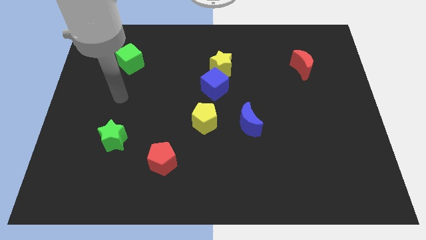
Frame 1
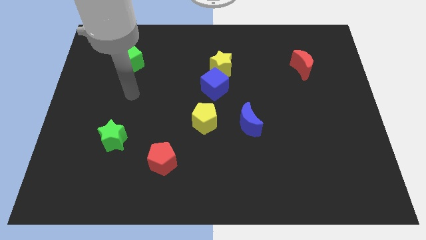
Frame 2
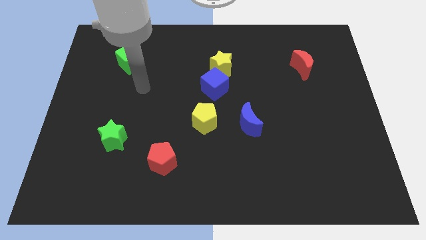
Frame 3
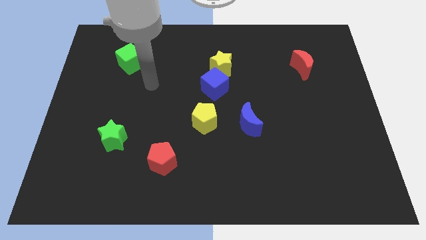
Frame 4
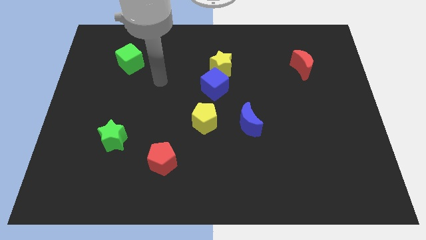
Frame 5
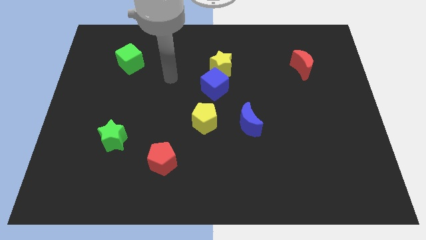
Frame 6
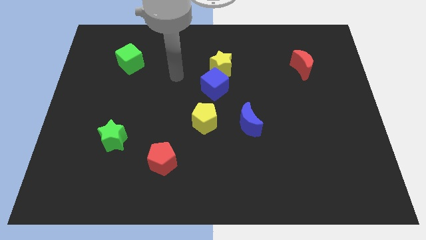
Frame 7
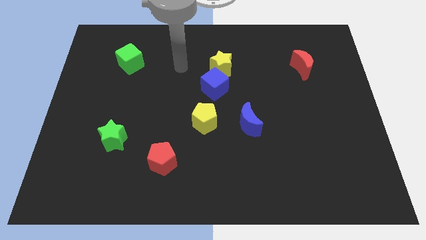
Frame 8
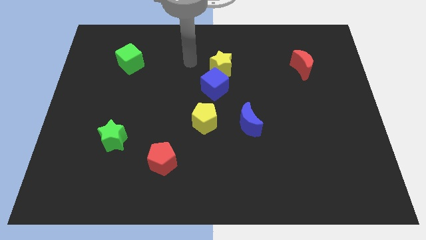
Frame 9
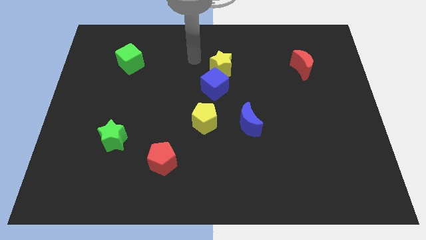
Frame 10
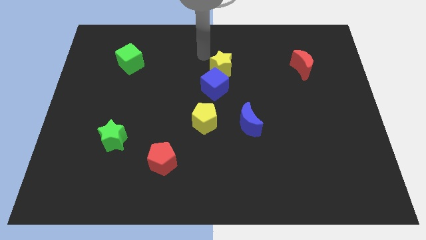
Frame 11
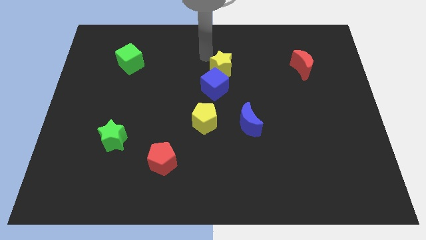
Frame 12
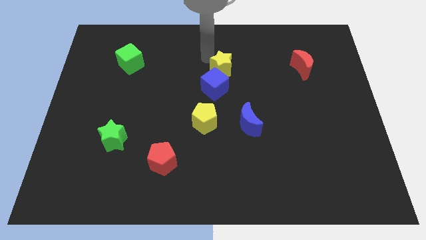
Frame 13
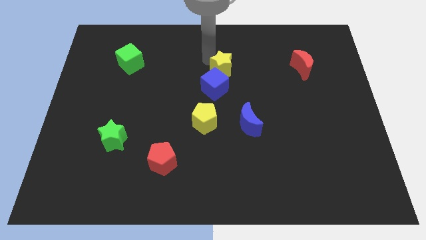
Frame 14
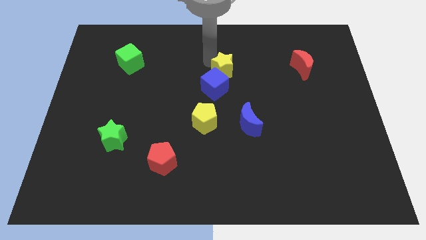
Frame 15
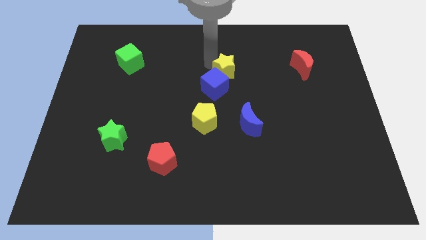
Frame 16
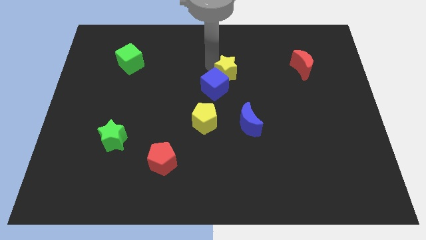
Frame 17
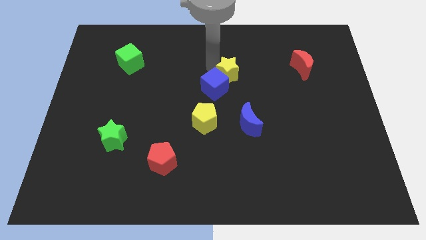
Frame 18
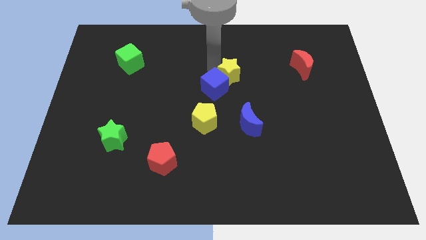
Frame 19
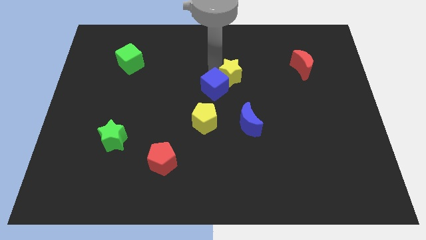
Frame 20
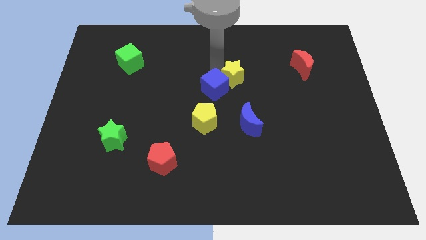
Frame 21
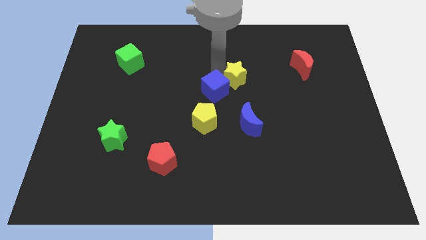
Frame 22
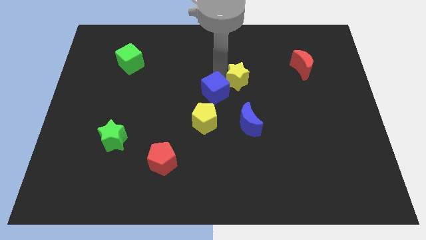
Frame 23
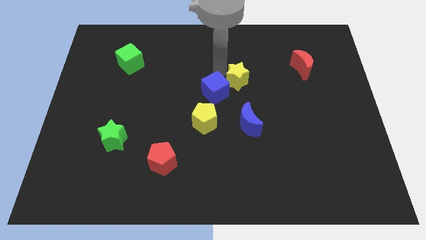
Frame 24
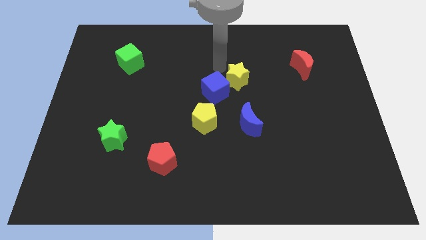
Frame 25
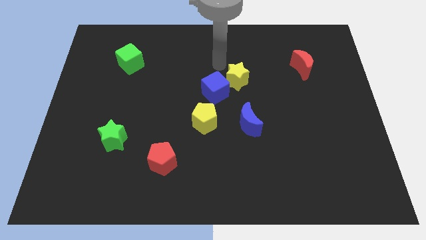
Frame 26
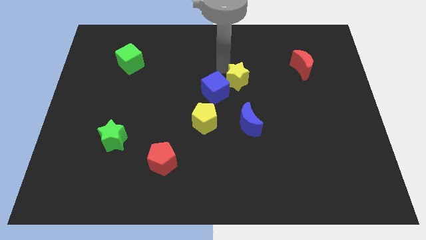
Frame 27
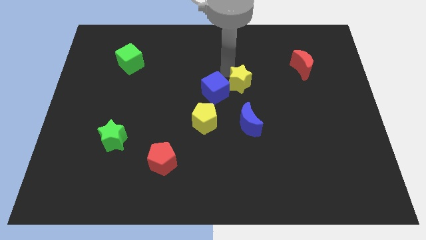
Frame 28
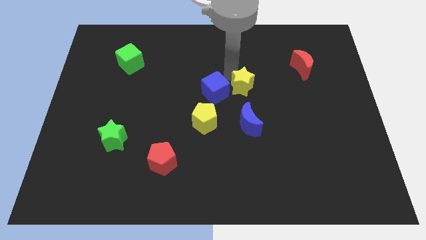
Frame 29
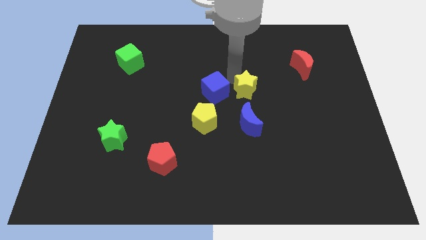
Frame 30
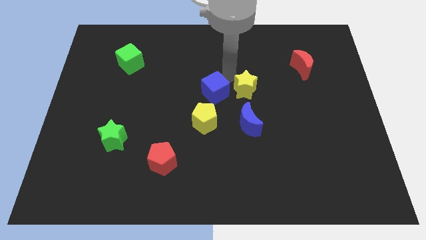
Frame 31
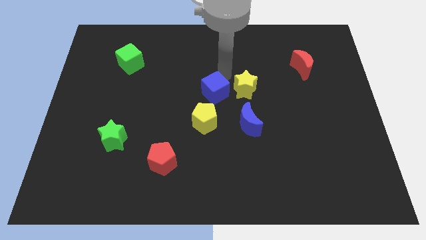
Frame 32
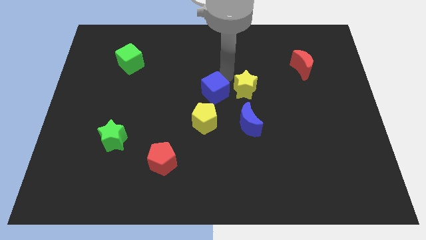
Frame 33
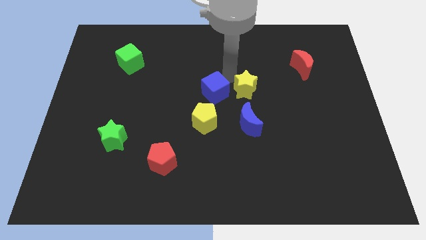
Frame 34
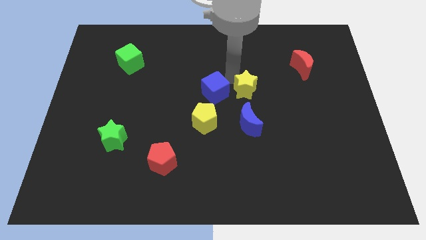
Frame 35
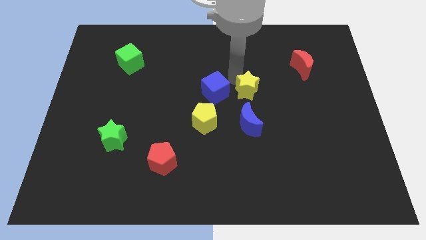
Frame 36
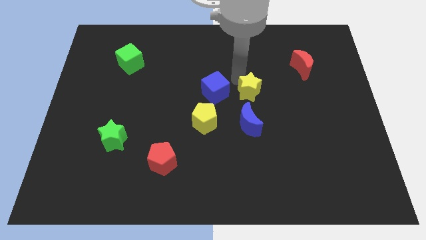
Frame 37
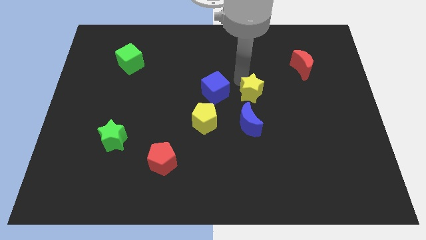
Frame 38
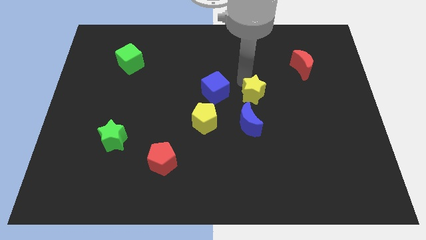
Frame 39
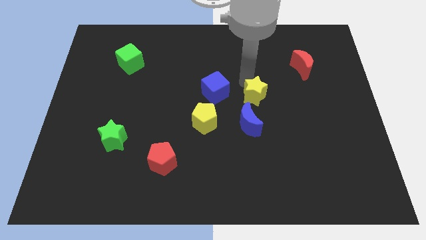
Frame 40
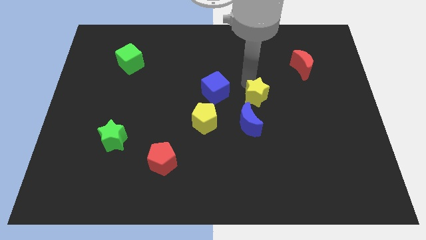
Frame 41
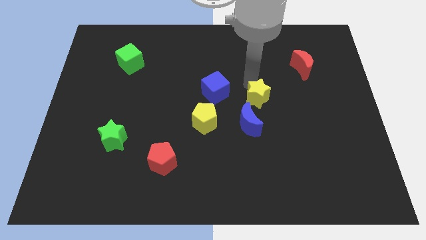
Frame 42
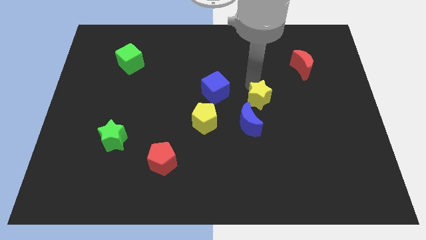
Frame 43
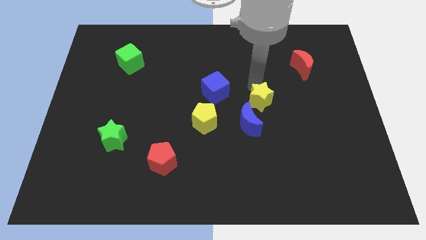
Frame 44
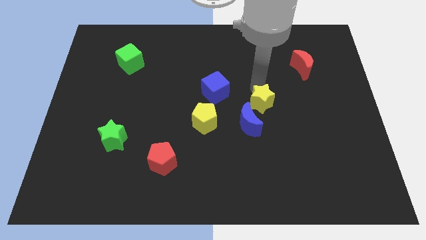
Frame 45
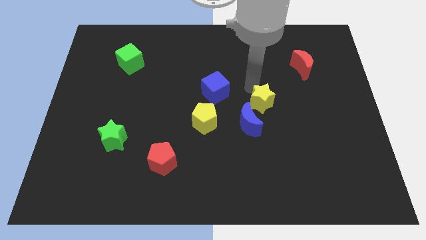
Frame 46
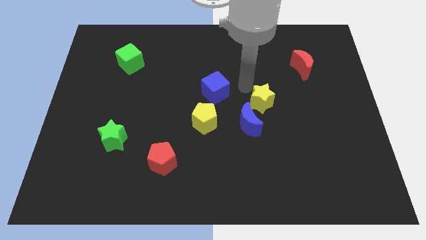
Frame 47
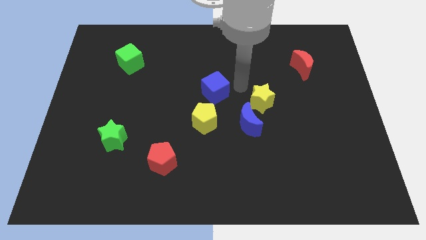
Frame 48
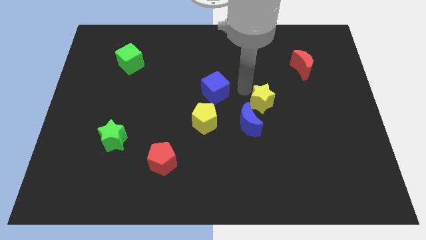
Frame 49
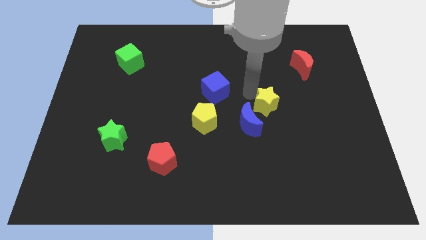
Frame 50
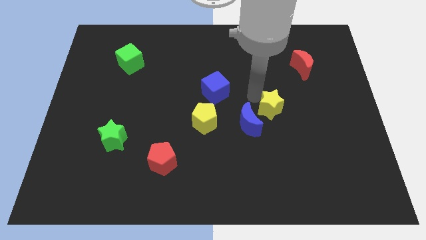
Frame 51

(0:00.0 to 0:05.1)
push the yellow star to the right of the blue moon

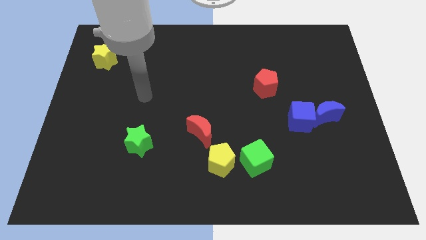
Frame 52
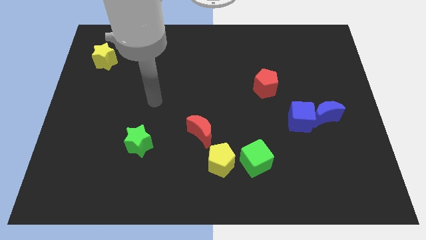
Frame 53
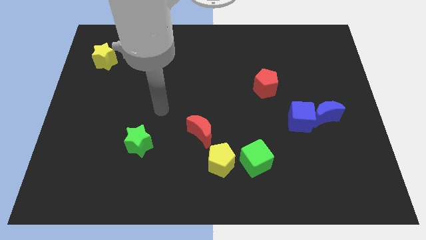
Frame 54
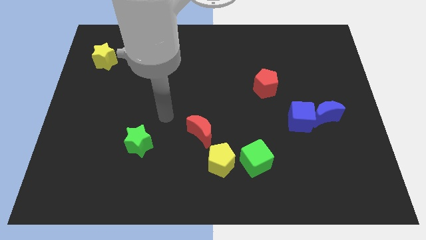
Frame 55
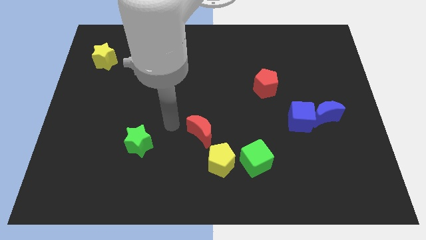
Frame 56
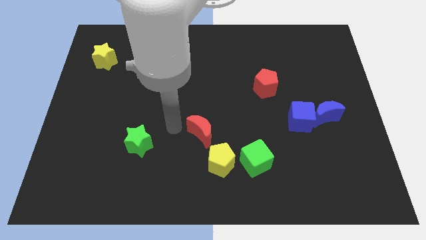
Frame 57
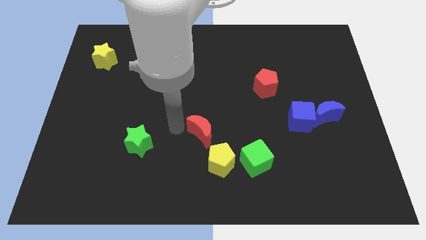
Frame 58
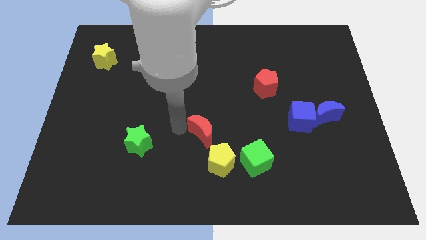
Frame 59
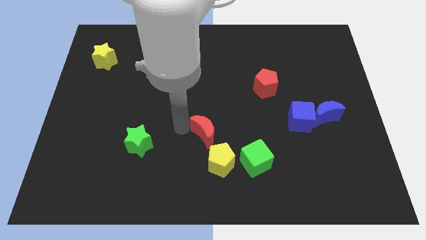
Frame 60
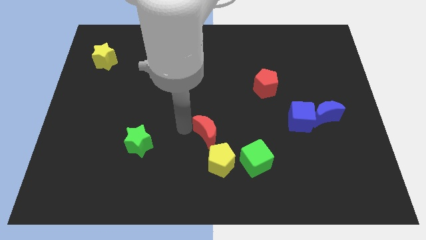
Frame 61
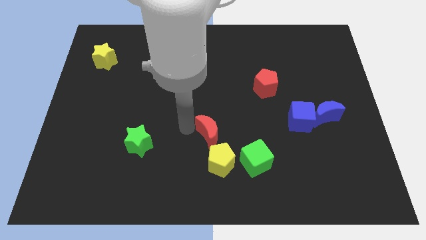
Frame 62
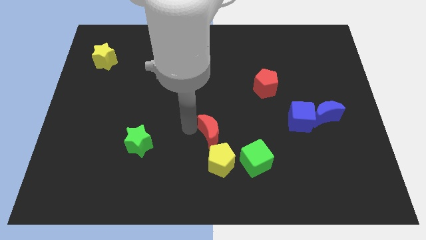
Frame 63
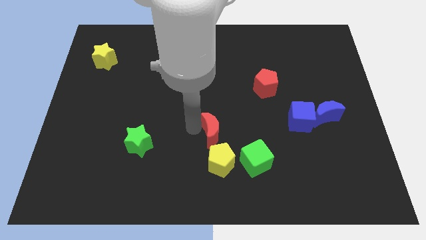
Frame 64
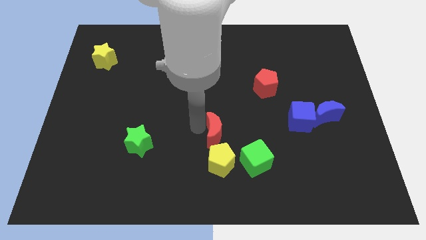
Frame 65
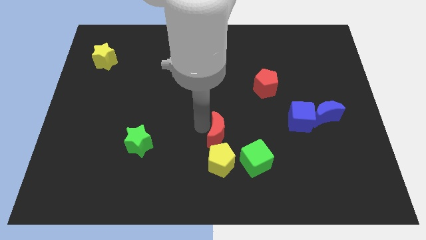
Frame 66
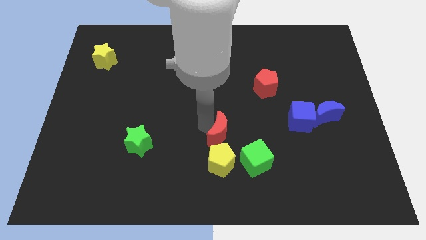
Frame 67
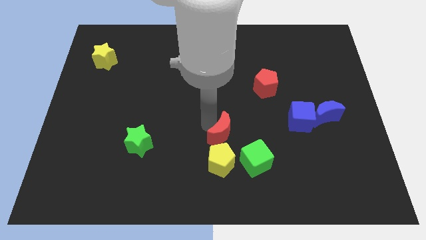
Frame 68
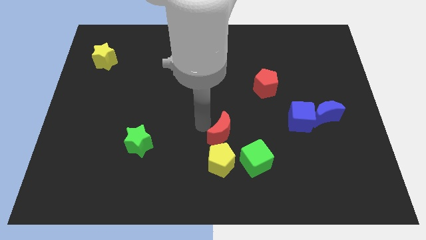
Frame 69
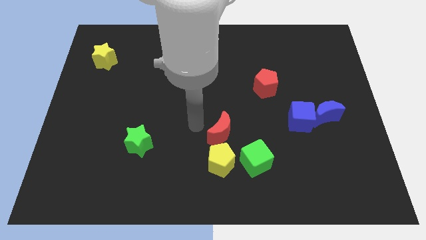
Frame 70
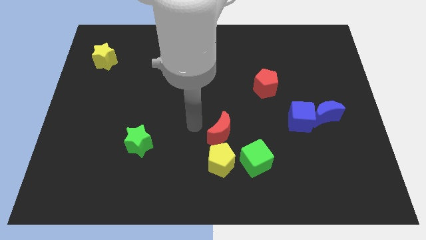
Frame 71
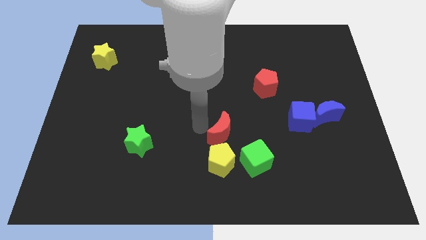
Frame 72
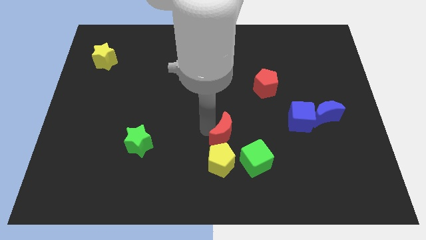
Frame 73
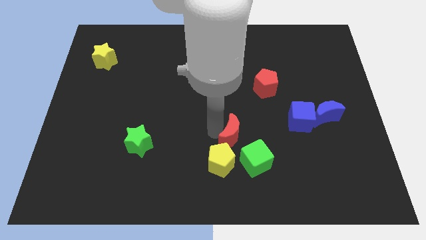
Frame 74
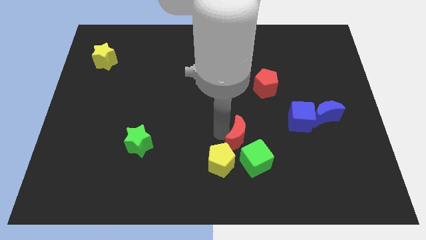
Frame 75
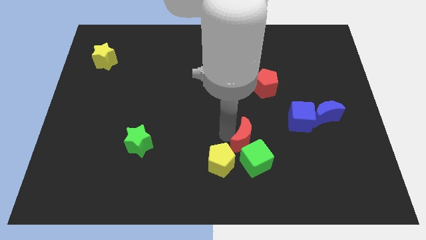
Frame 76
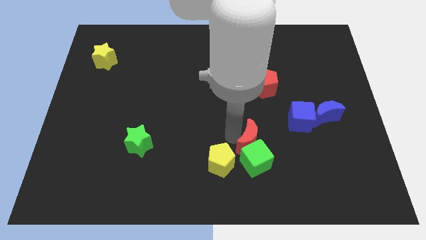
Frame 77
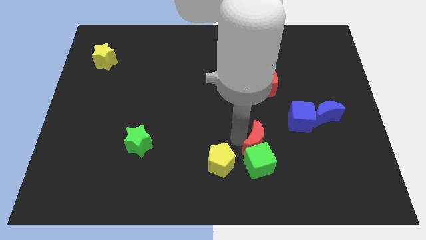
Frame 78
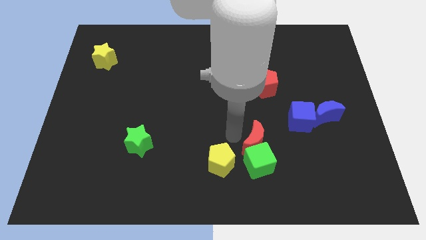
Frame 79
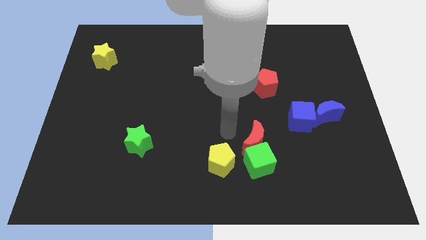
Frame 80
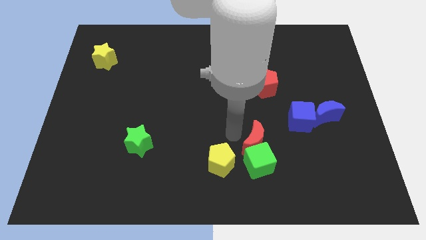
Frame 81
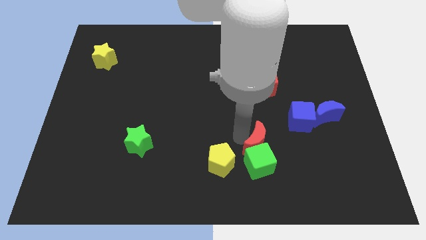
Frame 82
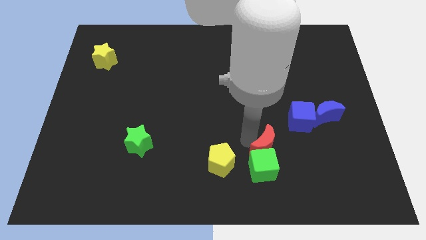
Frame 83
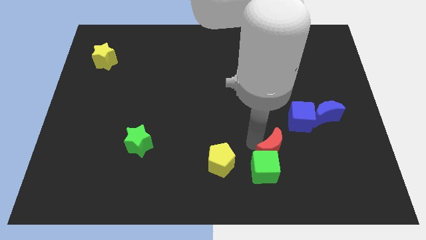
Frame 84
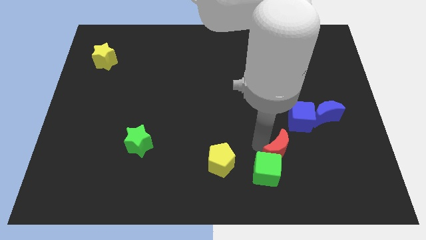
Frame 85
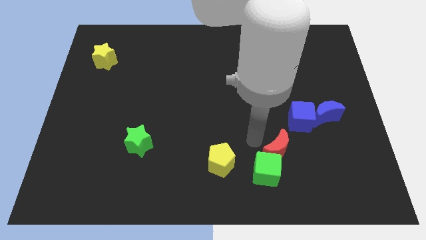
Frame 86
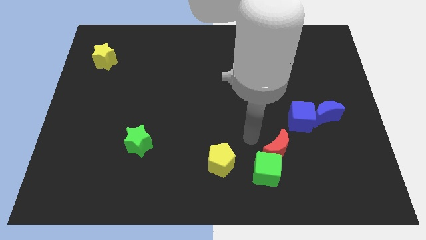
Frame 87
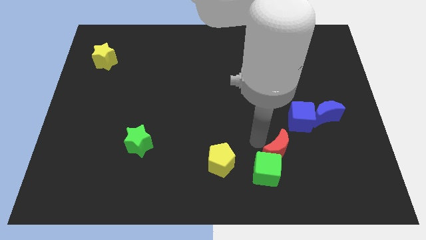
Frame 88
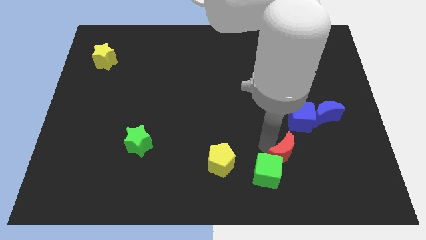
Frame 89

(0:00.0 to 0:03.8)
push the red moon right of the green cube
